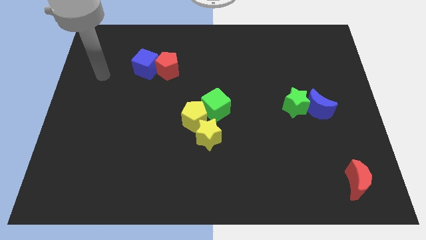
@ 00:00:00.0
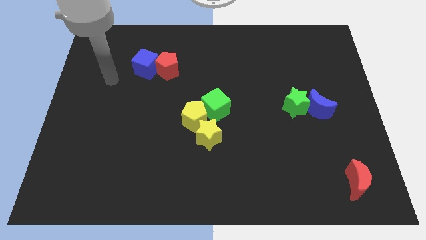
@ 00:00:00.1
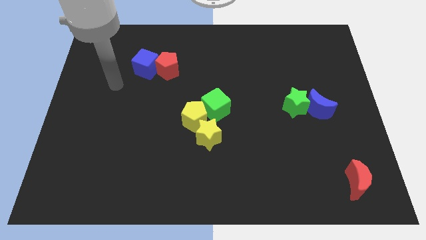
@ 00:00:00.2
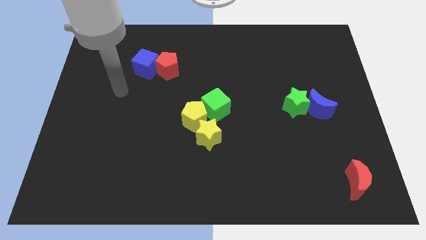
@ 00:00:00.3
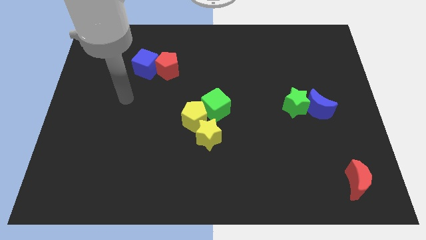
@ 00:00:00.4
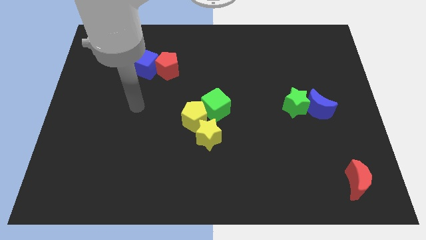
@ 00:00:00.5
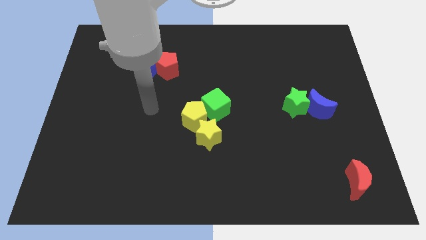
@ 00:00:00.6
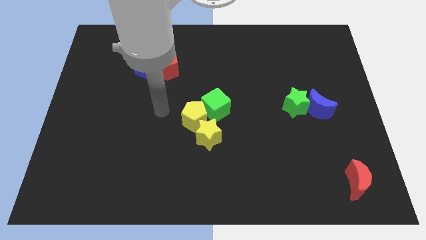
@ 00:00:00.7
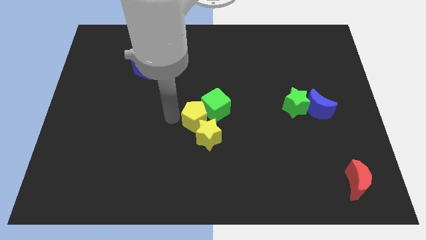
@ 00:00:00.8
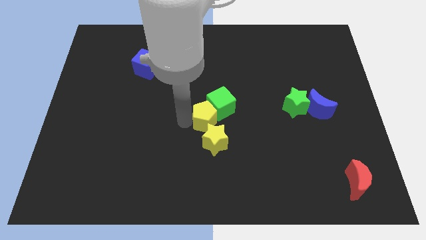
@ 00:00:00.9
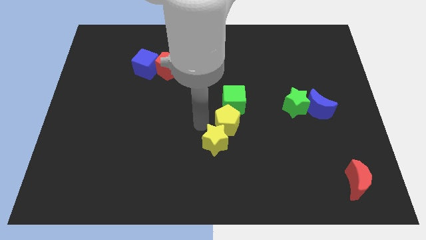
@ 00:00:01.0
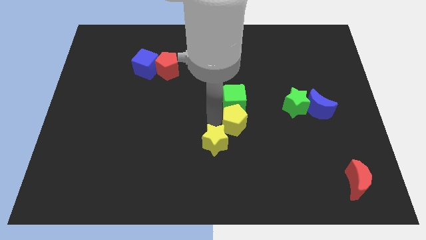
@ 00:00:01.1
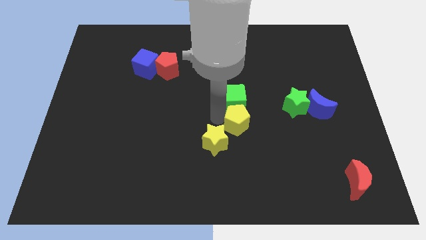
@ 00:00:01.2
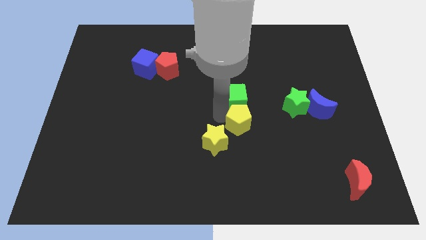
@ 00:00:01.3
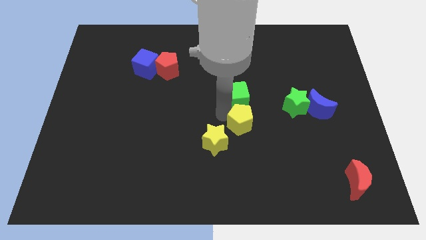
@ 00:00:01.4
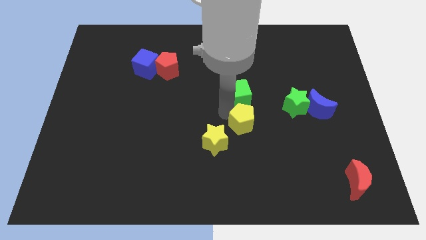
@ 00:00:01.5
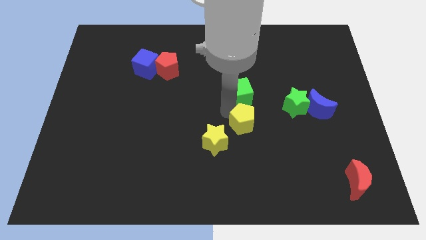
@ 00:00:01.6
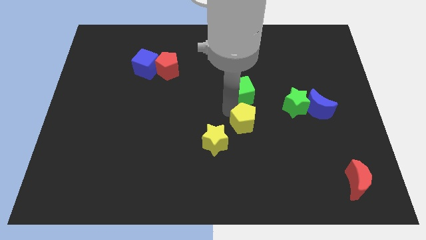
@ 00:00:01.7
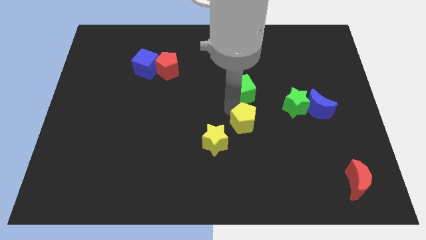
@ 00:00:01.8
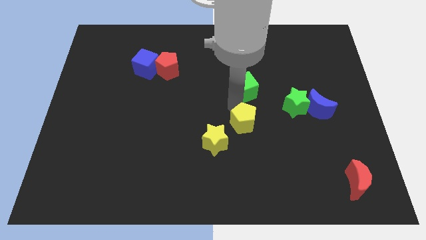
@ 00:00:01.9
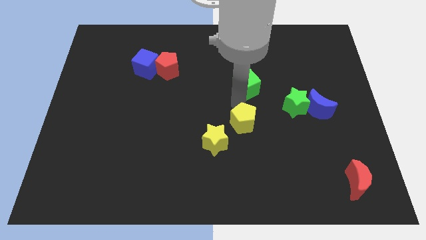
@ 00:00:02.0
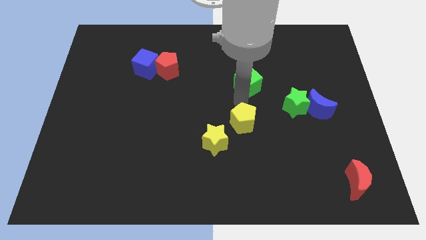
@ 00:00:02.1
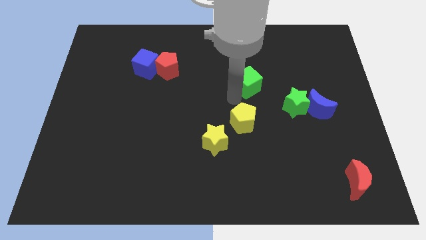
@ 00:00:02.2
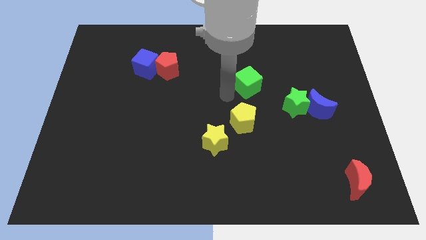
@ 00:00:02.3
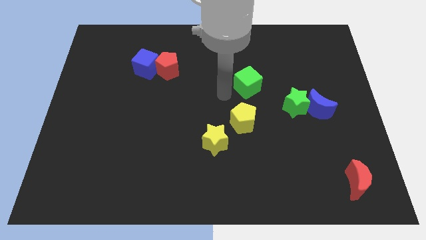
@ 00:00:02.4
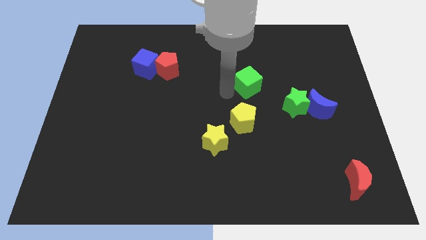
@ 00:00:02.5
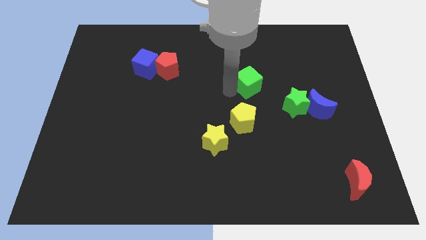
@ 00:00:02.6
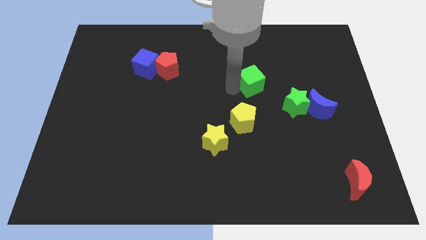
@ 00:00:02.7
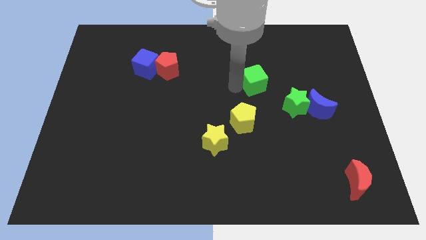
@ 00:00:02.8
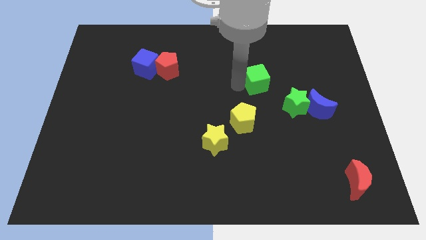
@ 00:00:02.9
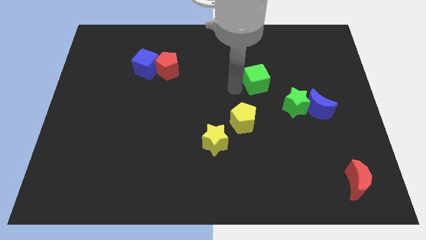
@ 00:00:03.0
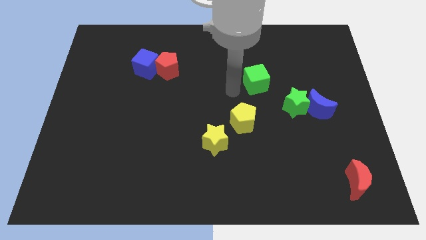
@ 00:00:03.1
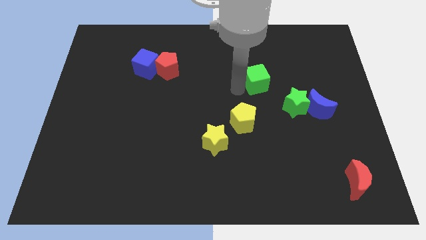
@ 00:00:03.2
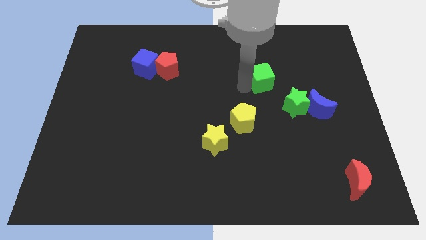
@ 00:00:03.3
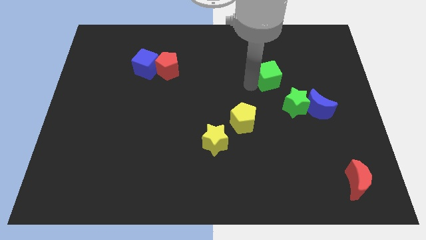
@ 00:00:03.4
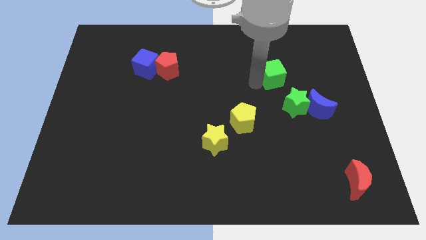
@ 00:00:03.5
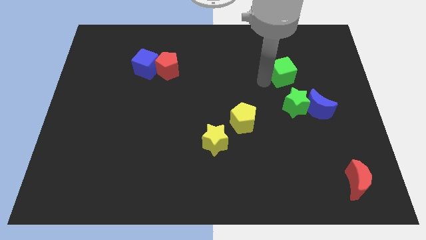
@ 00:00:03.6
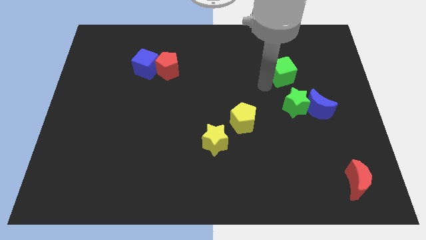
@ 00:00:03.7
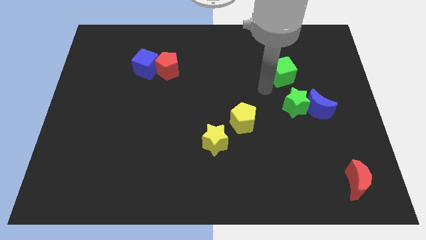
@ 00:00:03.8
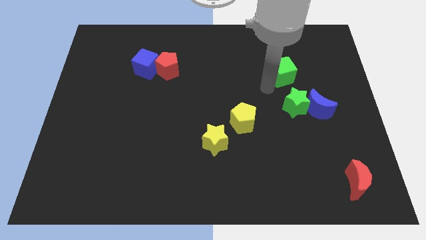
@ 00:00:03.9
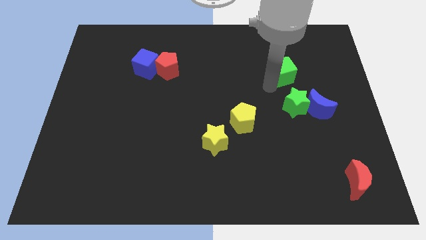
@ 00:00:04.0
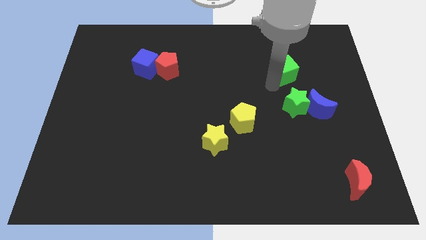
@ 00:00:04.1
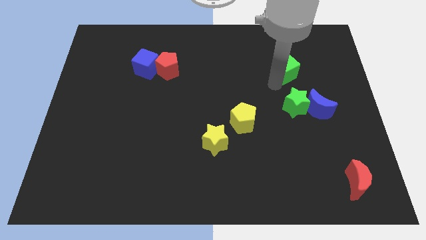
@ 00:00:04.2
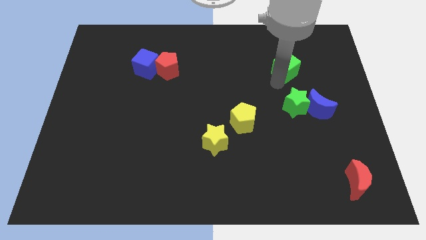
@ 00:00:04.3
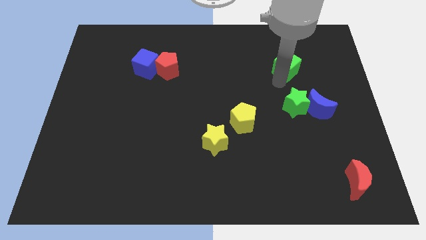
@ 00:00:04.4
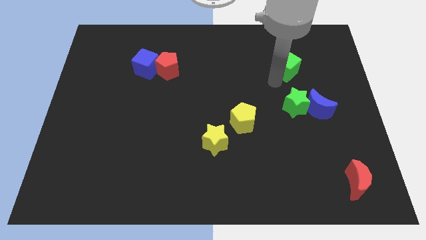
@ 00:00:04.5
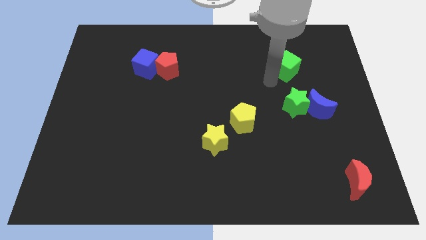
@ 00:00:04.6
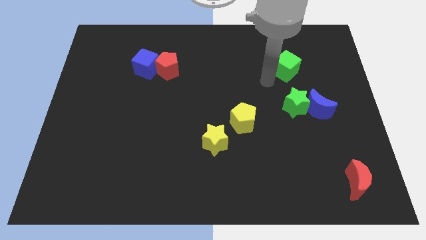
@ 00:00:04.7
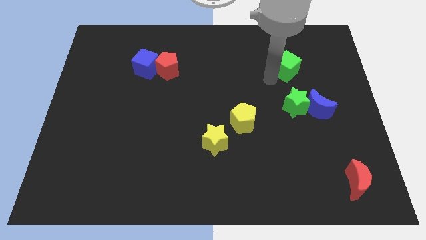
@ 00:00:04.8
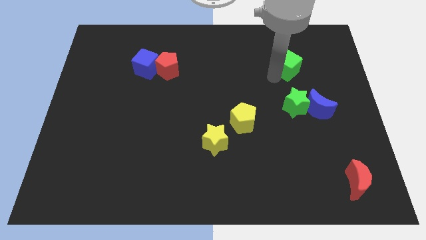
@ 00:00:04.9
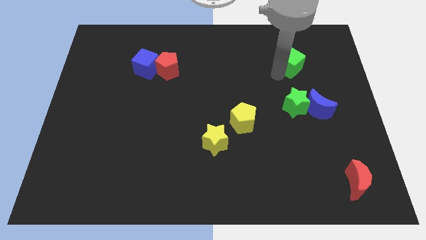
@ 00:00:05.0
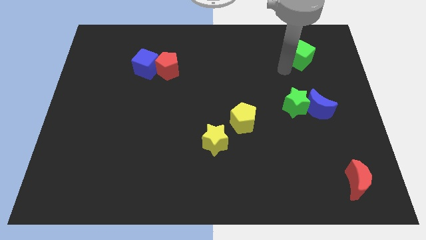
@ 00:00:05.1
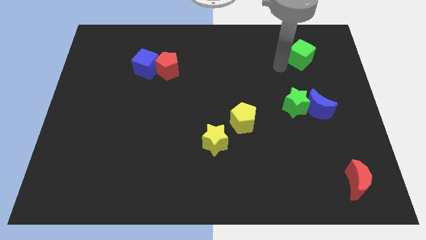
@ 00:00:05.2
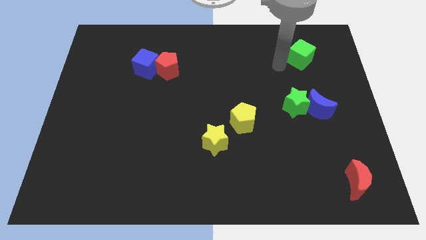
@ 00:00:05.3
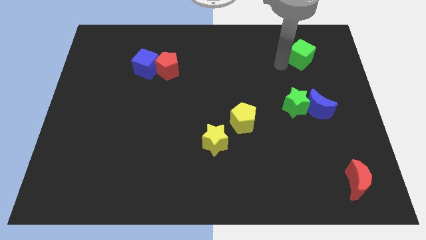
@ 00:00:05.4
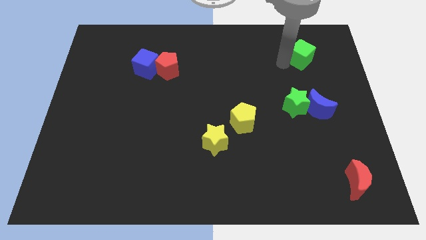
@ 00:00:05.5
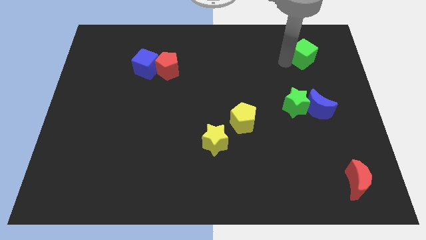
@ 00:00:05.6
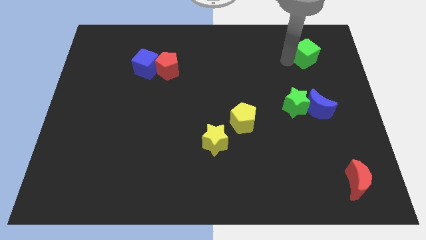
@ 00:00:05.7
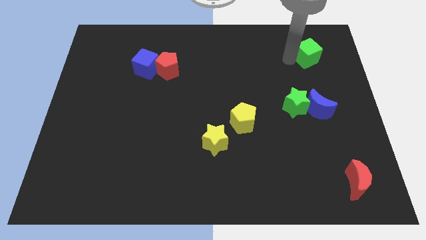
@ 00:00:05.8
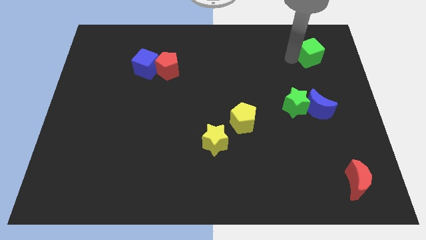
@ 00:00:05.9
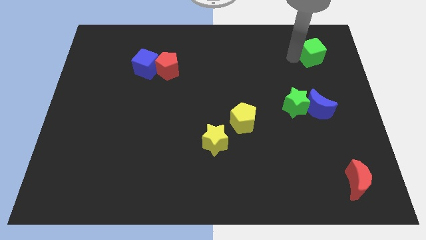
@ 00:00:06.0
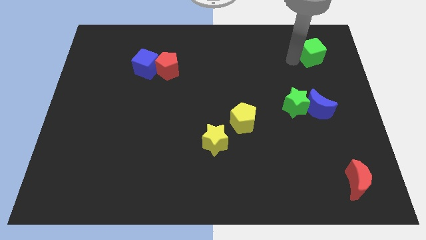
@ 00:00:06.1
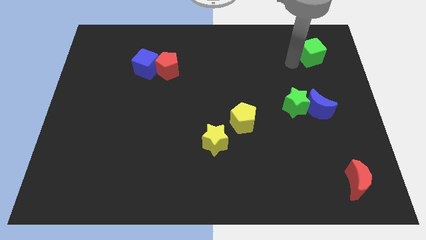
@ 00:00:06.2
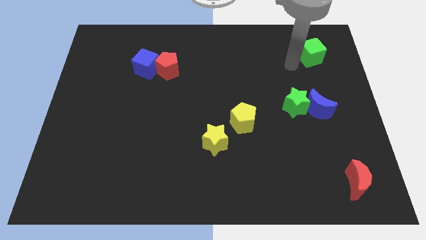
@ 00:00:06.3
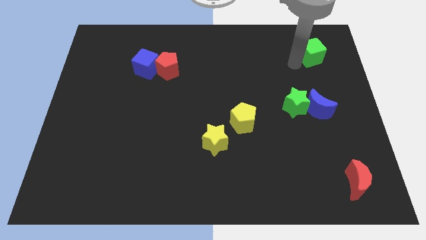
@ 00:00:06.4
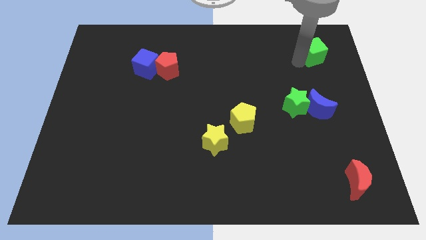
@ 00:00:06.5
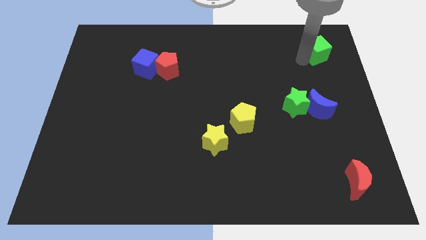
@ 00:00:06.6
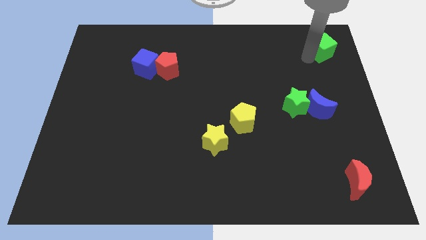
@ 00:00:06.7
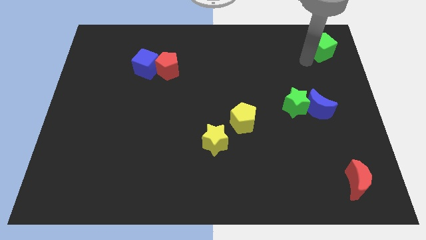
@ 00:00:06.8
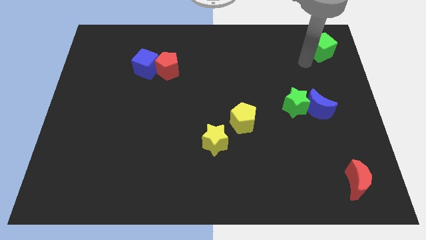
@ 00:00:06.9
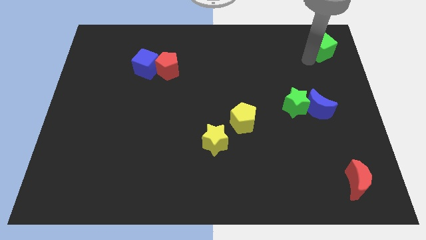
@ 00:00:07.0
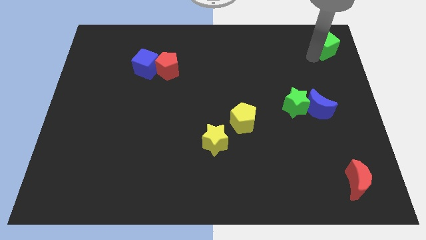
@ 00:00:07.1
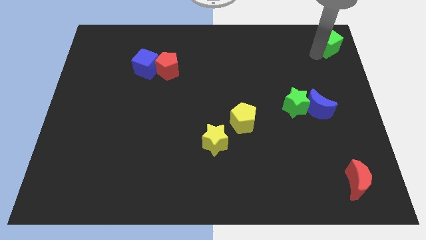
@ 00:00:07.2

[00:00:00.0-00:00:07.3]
put the green cube to the top right of the board
